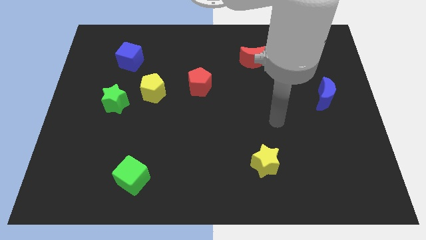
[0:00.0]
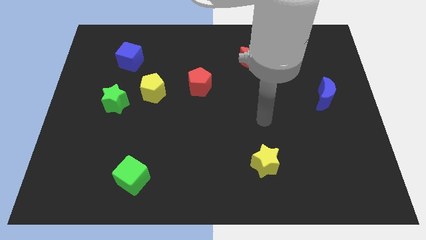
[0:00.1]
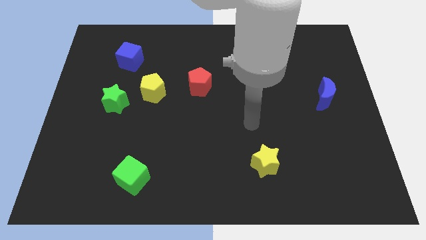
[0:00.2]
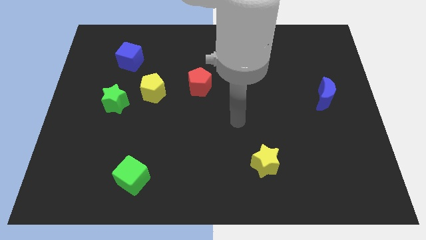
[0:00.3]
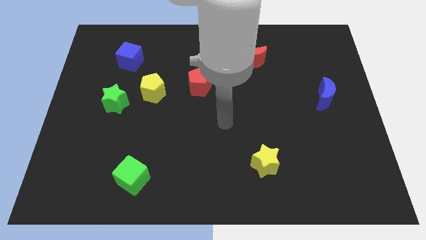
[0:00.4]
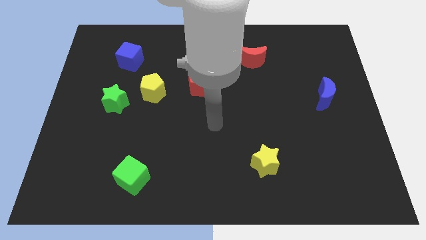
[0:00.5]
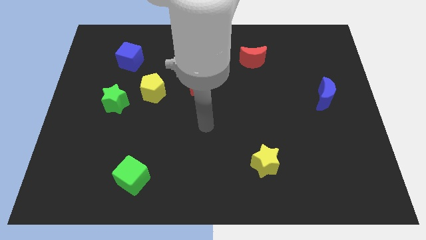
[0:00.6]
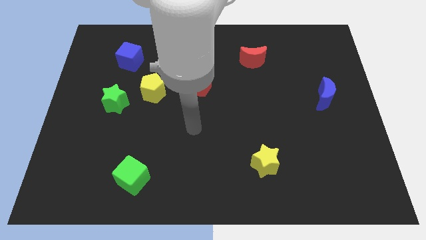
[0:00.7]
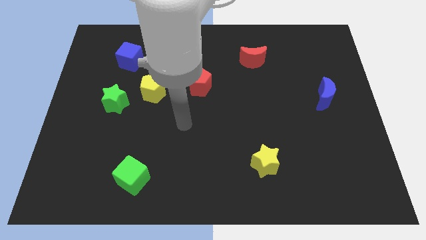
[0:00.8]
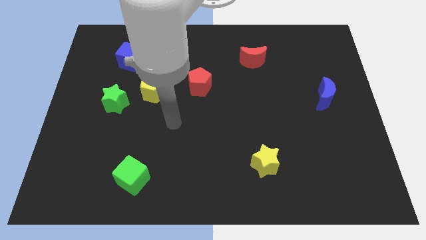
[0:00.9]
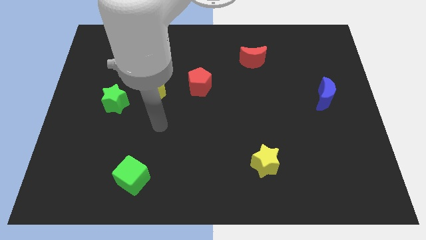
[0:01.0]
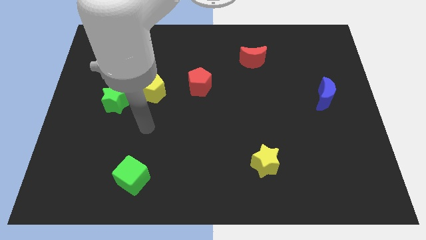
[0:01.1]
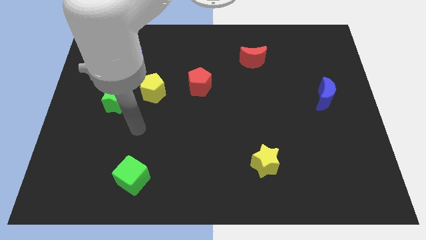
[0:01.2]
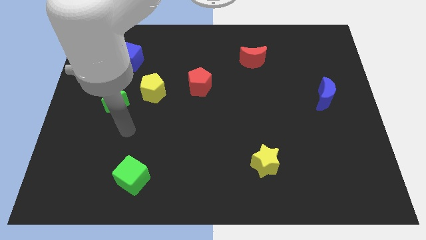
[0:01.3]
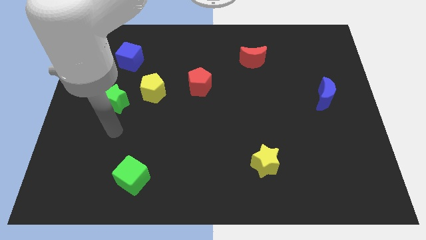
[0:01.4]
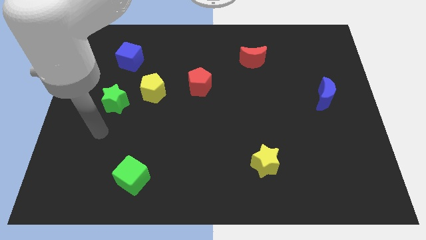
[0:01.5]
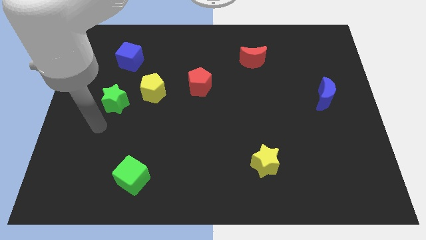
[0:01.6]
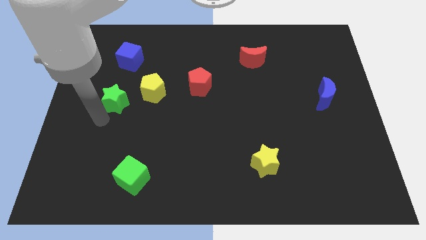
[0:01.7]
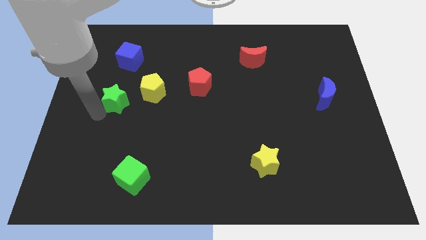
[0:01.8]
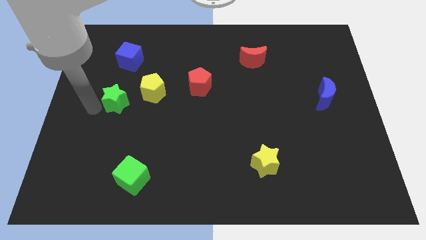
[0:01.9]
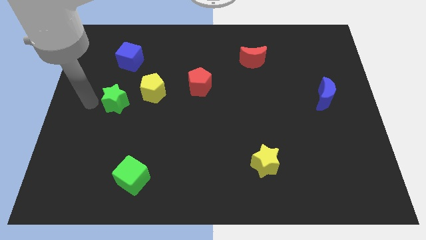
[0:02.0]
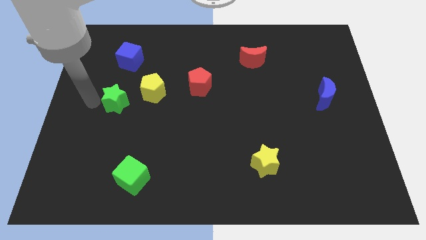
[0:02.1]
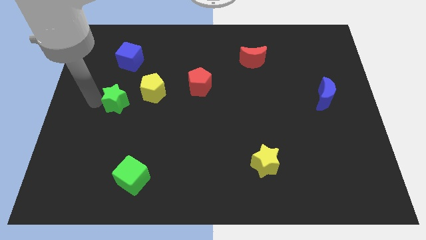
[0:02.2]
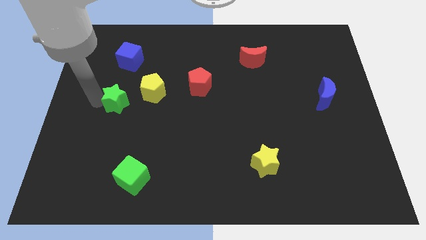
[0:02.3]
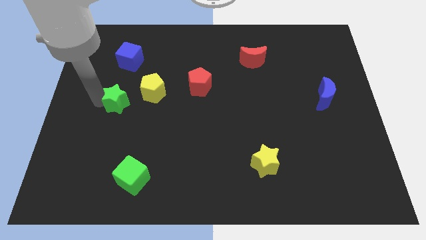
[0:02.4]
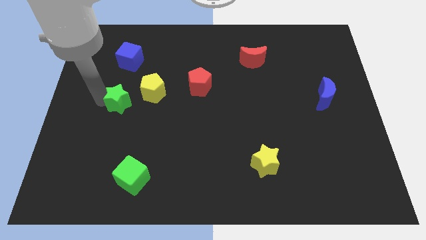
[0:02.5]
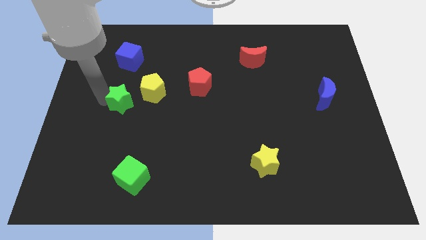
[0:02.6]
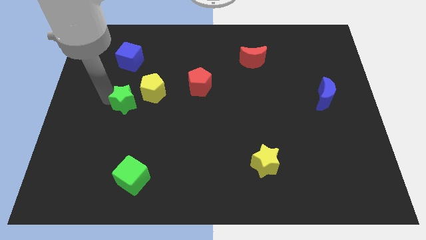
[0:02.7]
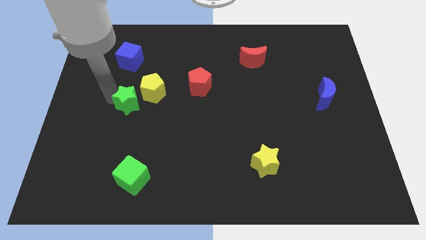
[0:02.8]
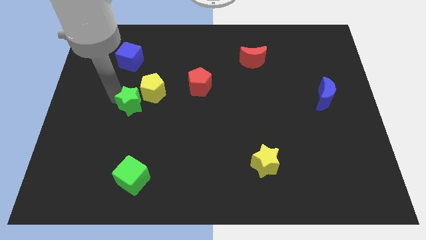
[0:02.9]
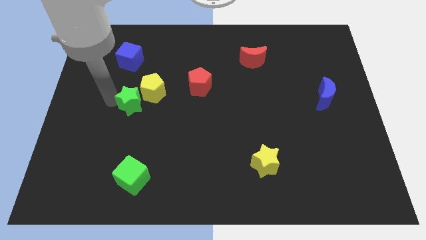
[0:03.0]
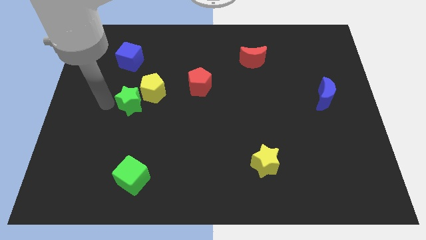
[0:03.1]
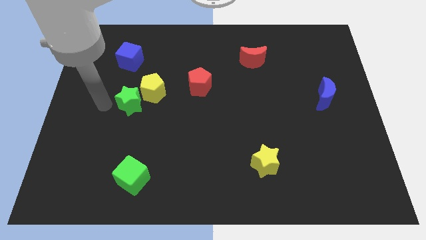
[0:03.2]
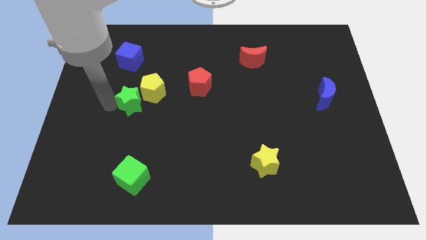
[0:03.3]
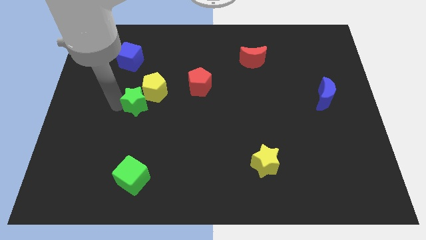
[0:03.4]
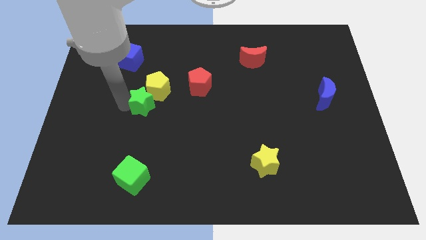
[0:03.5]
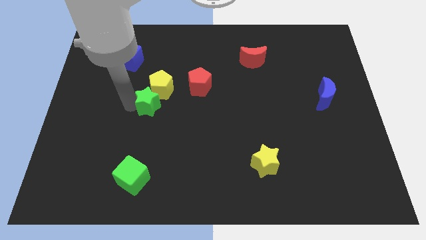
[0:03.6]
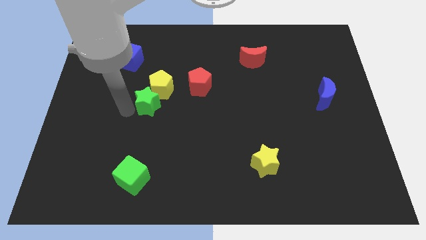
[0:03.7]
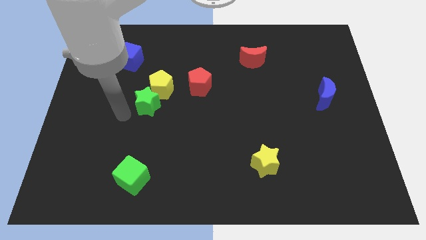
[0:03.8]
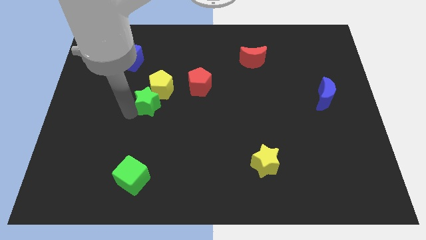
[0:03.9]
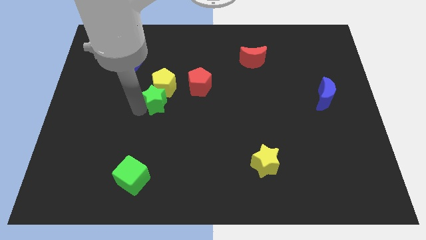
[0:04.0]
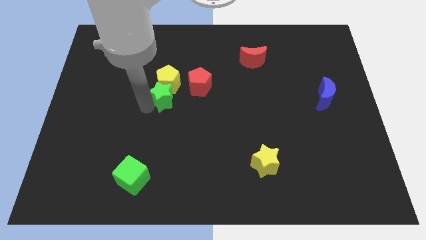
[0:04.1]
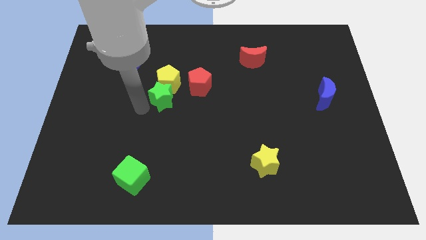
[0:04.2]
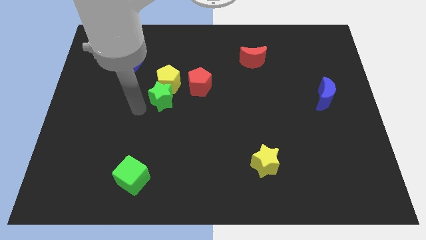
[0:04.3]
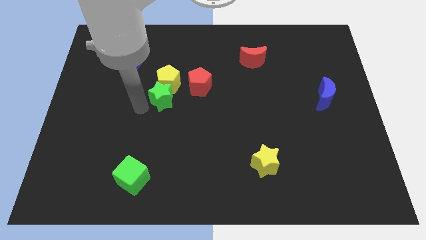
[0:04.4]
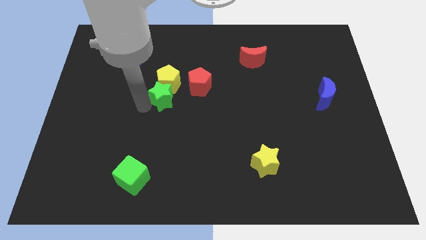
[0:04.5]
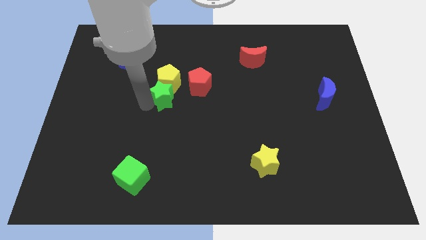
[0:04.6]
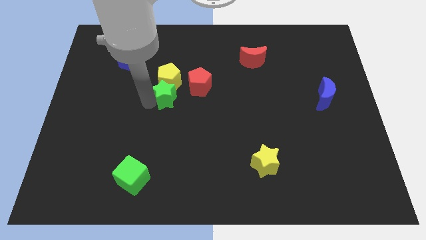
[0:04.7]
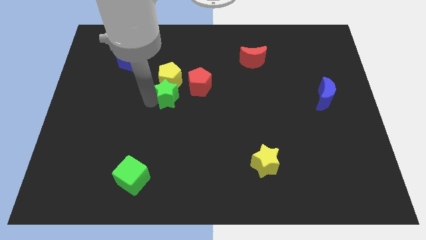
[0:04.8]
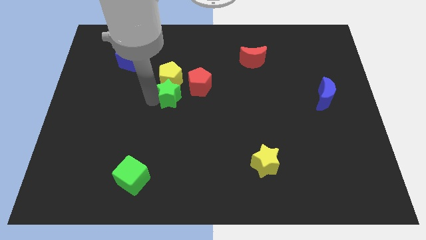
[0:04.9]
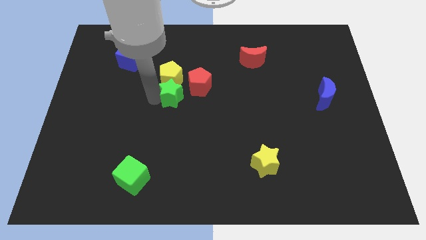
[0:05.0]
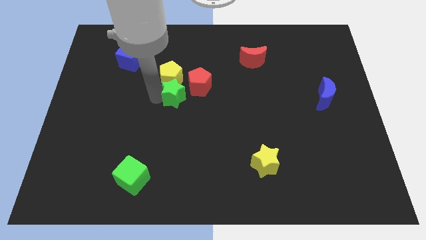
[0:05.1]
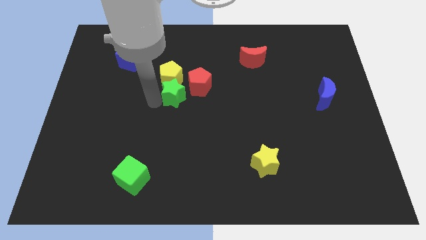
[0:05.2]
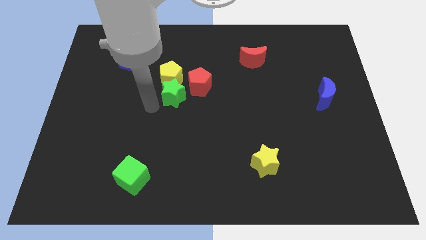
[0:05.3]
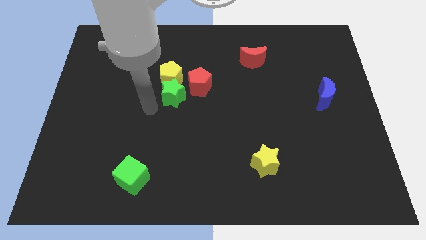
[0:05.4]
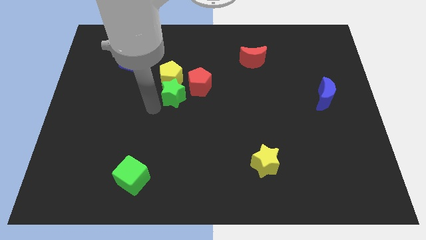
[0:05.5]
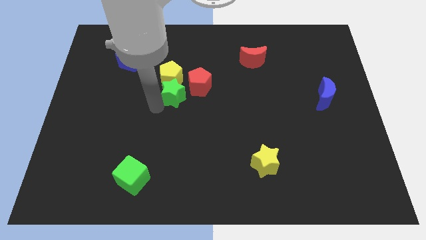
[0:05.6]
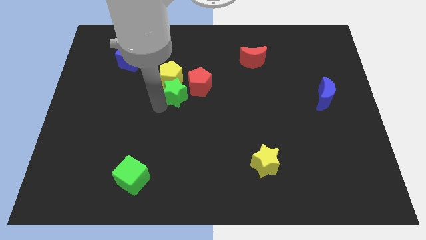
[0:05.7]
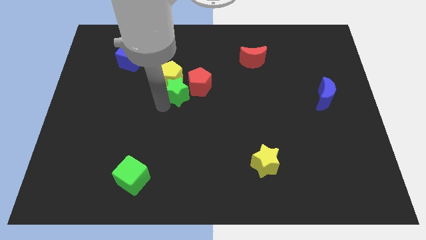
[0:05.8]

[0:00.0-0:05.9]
push the green star close to the red pentagon
